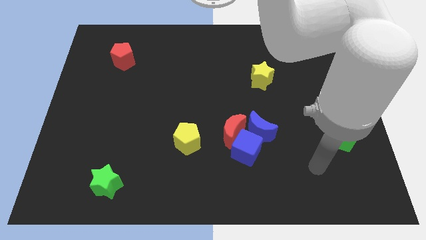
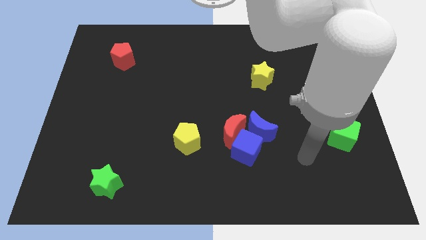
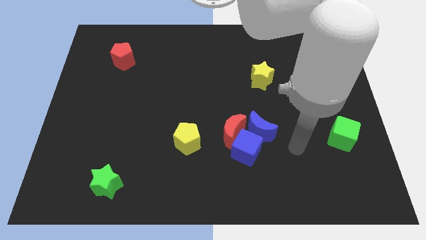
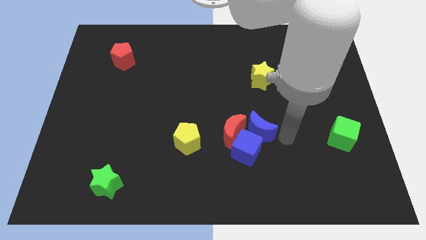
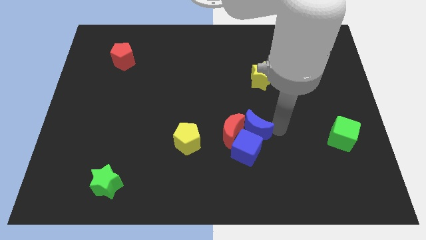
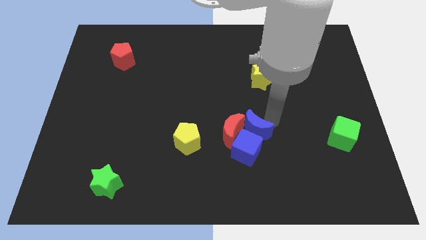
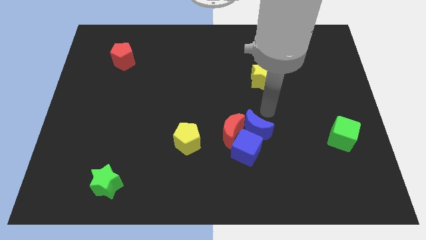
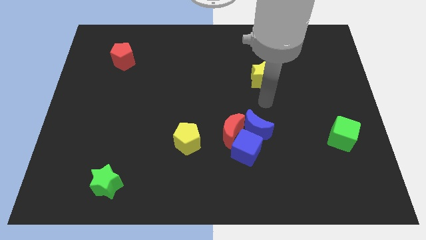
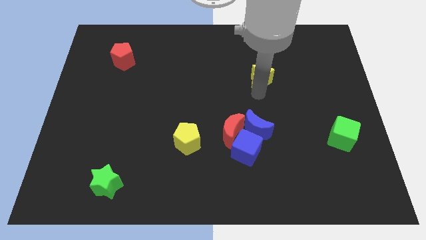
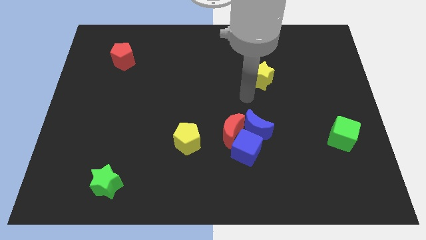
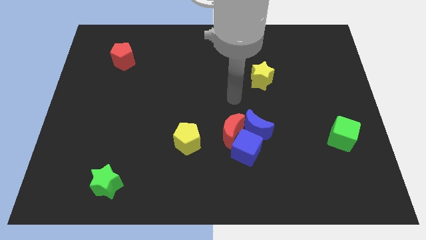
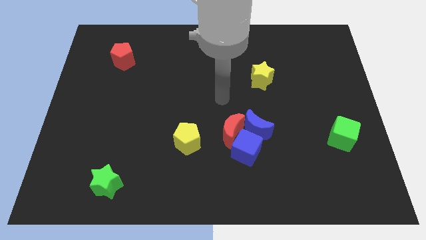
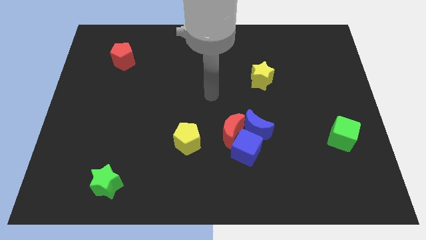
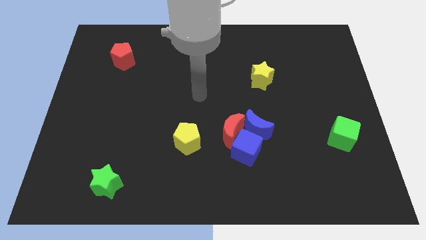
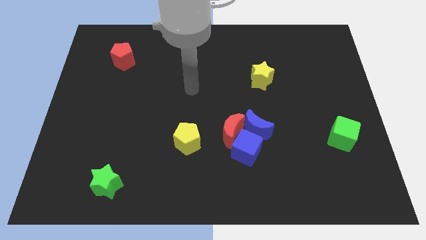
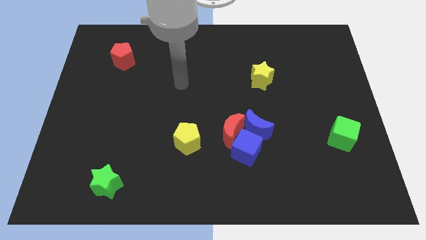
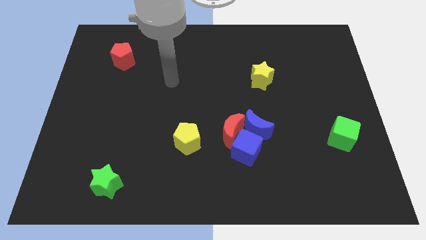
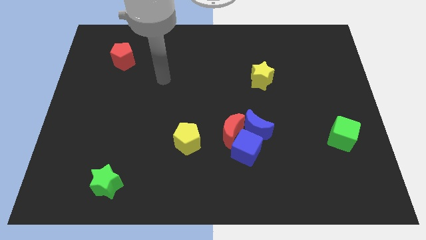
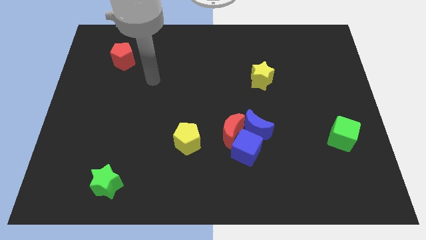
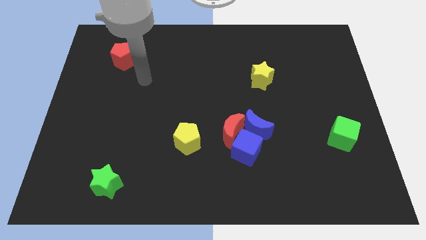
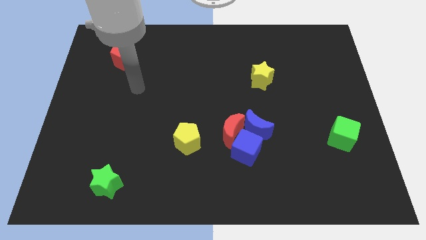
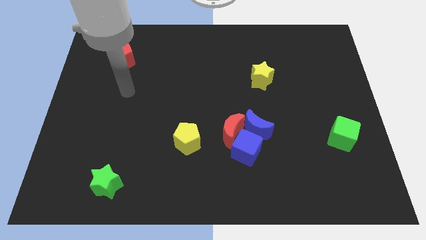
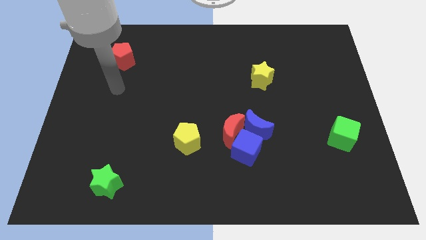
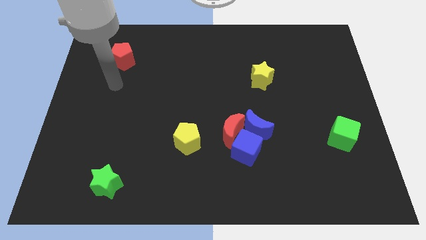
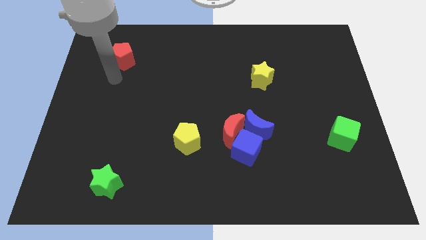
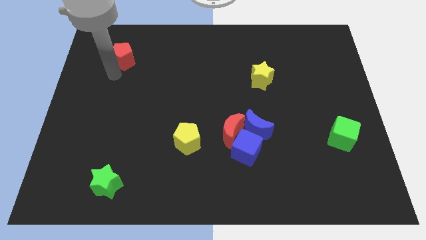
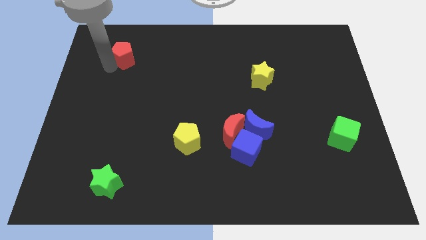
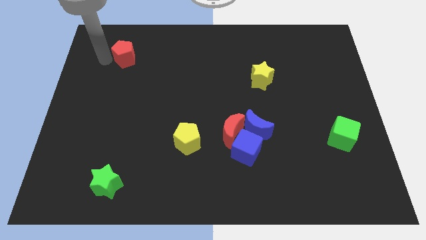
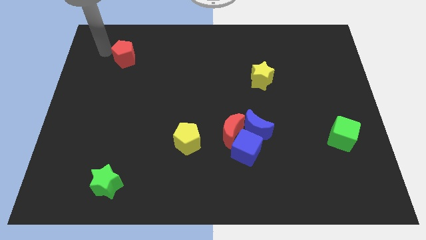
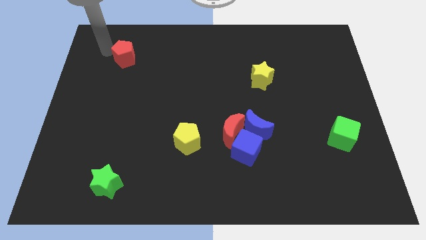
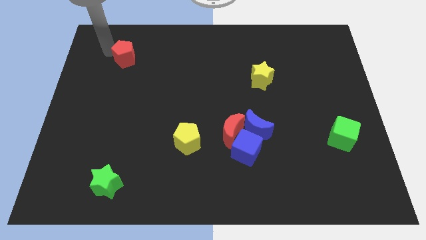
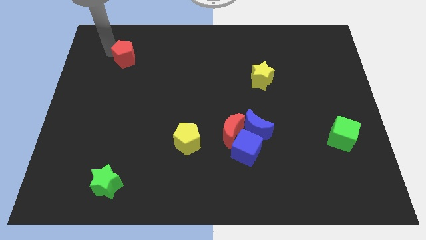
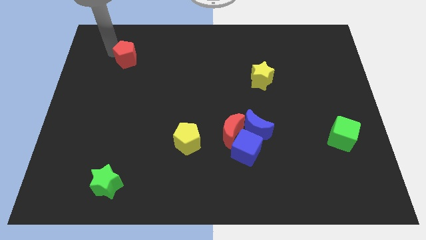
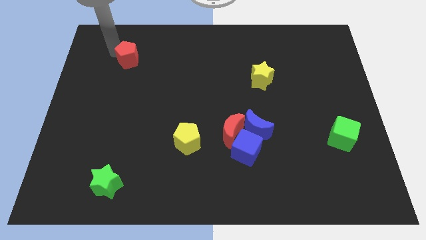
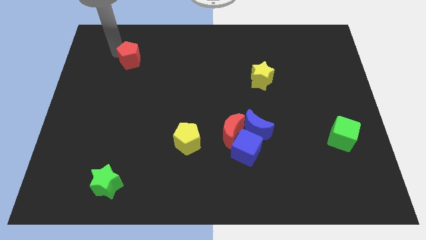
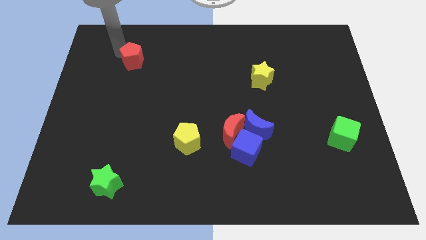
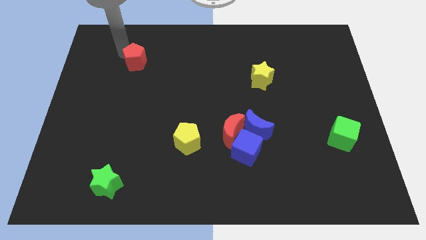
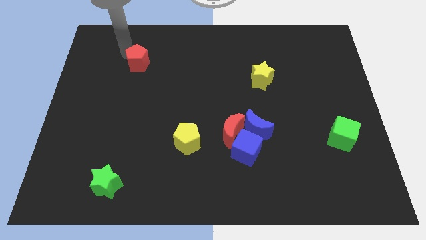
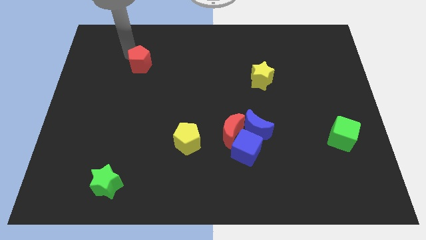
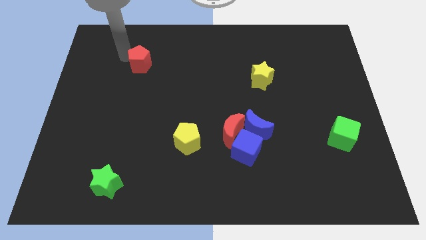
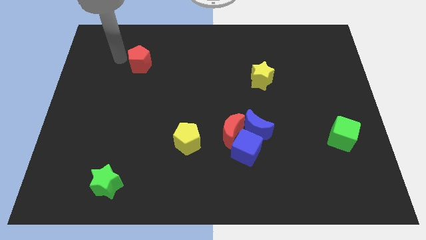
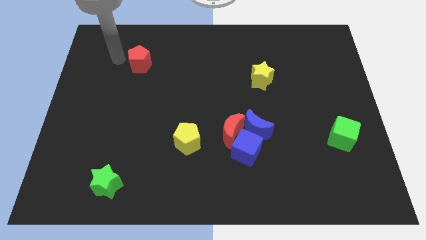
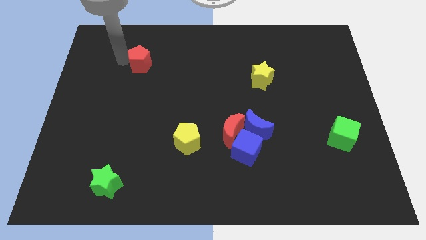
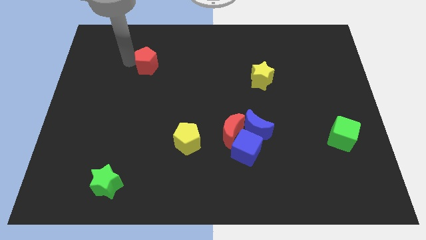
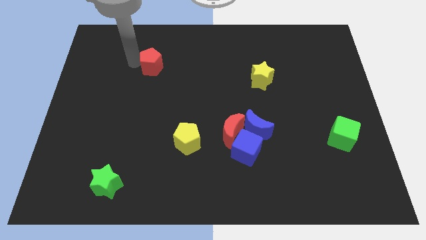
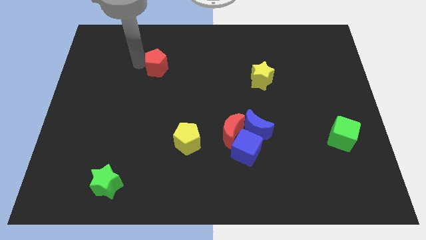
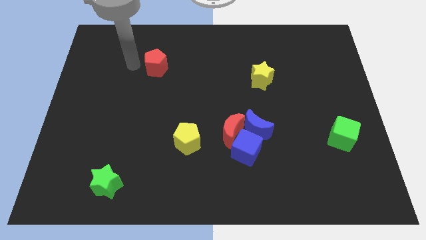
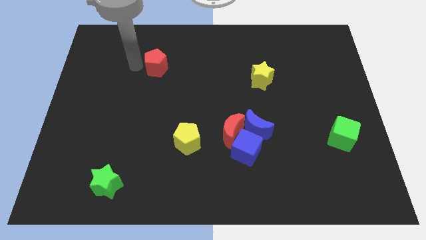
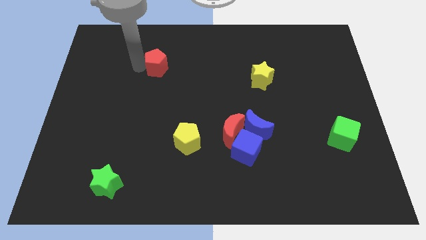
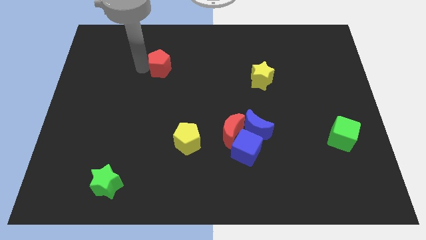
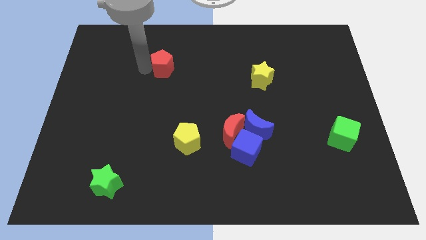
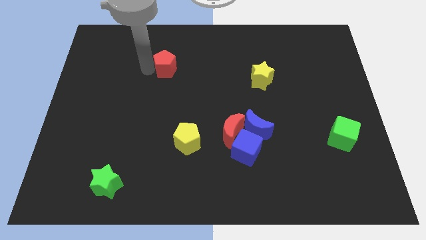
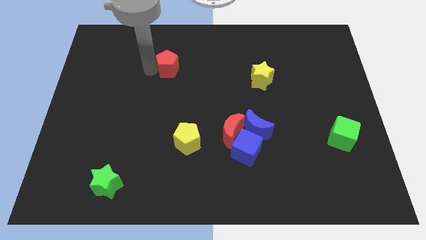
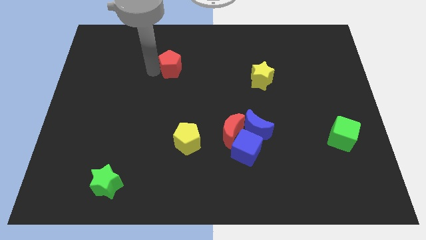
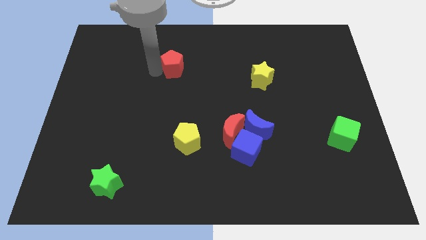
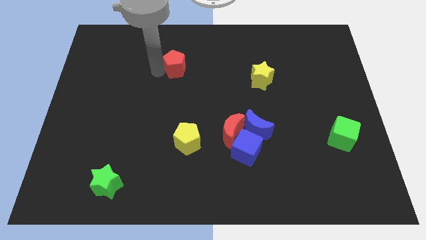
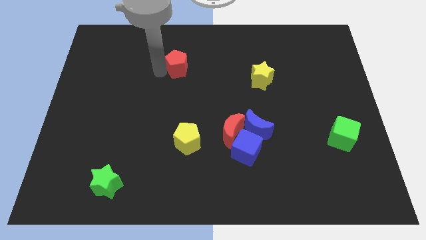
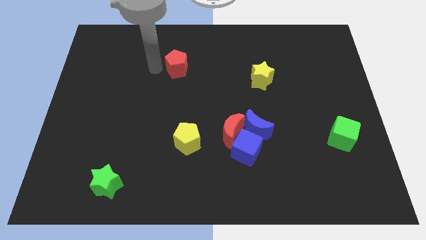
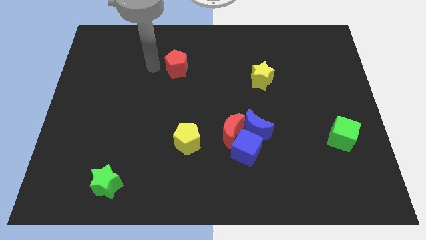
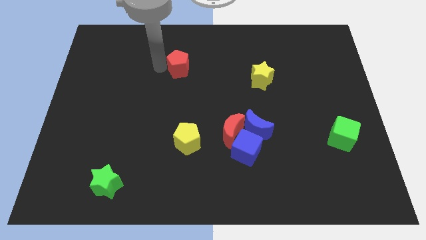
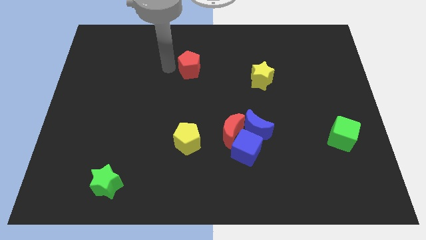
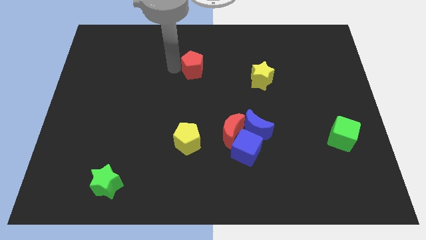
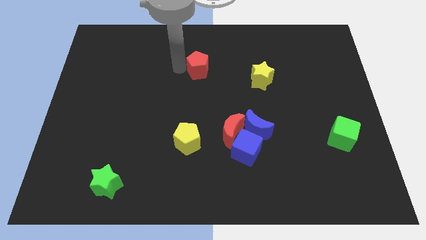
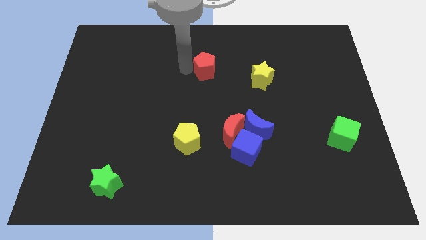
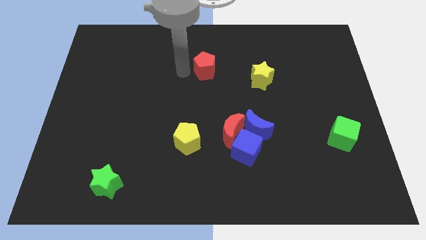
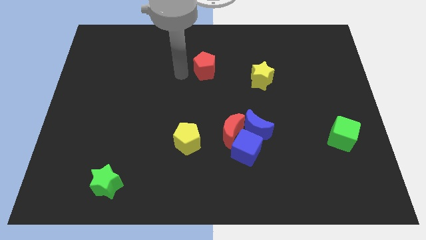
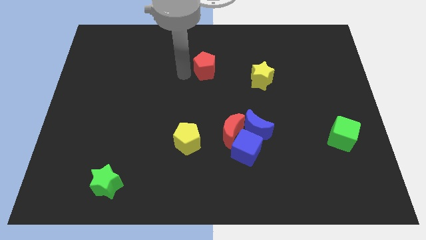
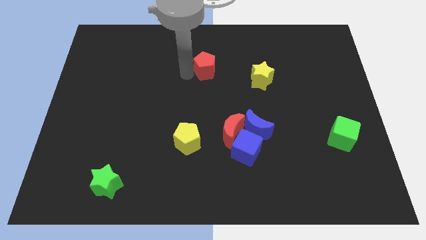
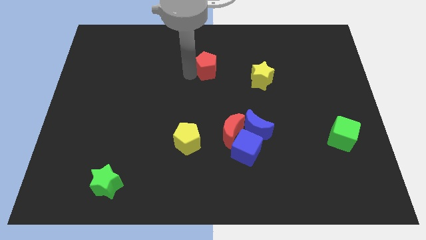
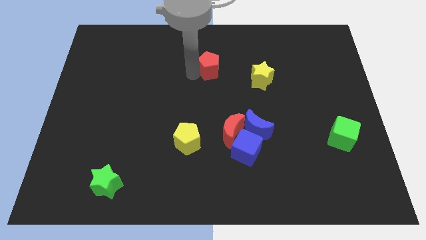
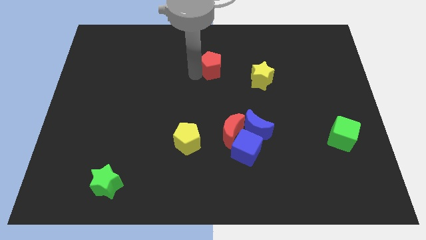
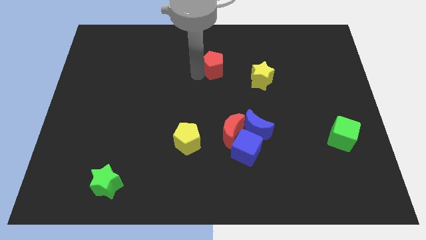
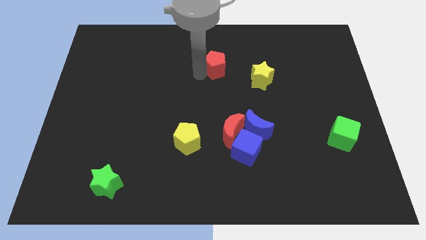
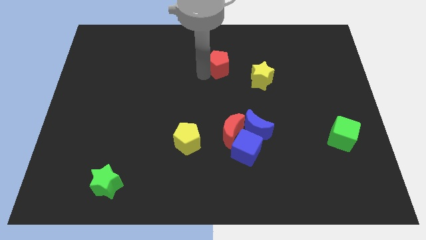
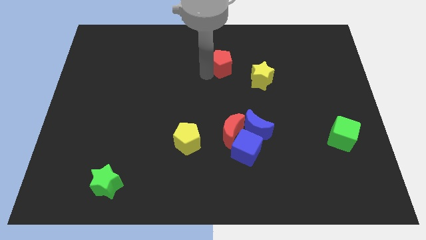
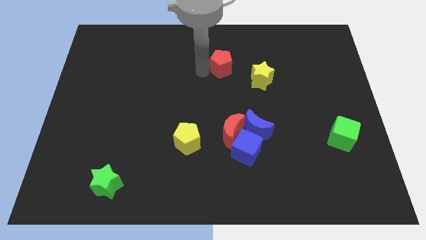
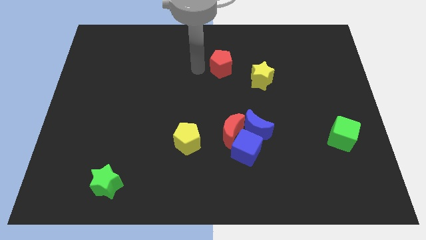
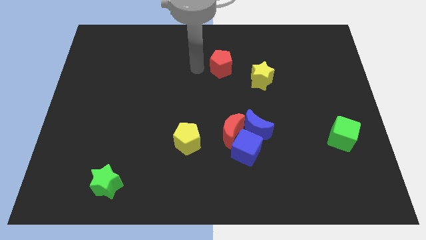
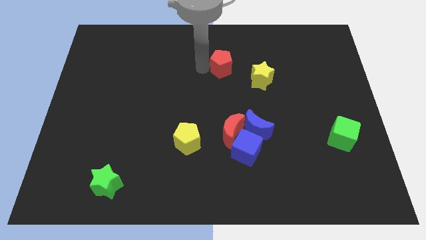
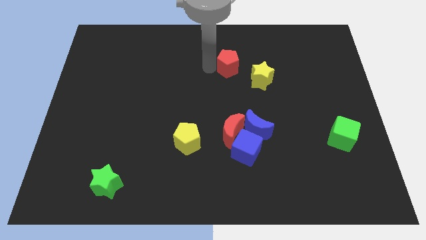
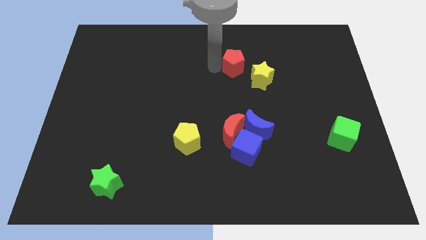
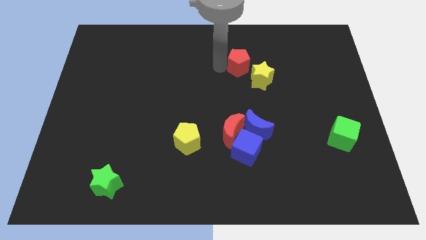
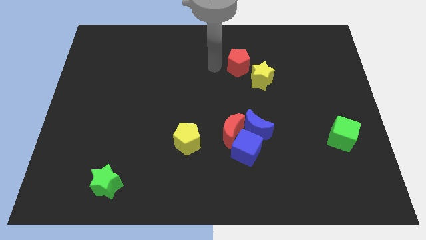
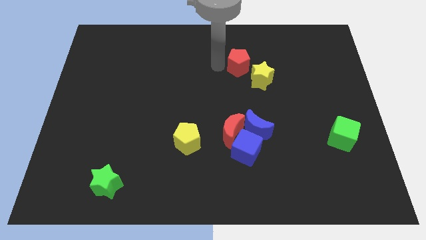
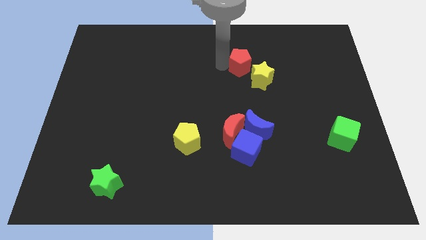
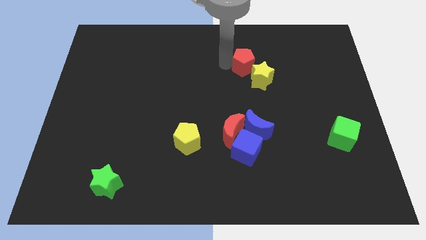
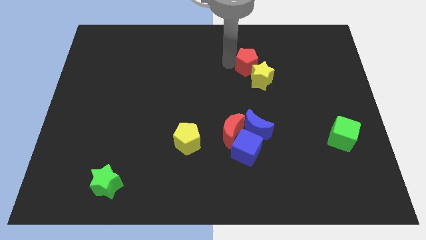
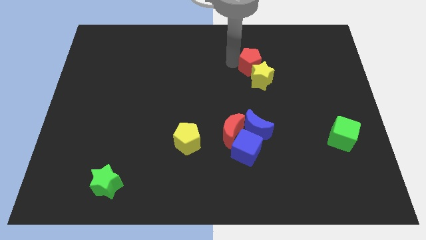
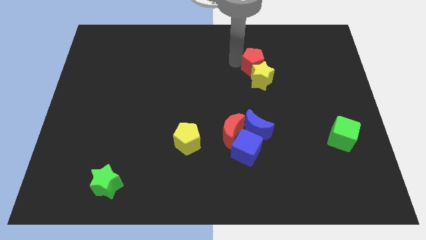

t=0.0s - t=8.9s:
move the red pentagon to the top right of the yellow star
